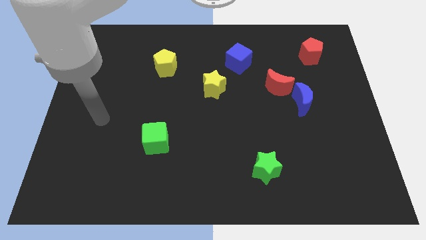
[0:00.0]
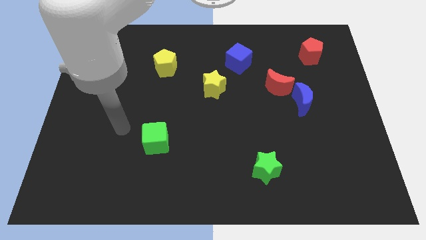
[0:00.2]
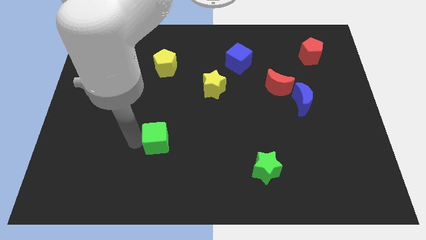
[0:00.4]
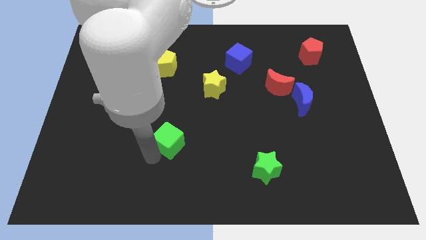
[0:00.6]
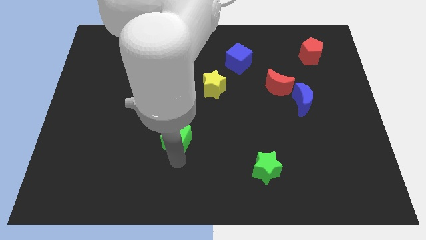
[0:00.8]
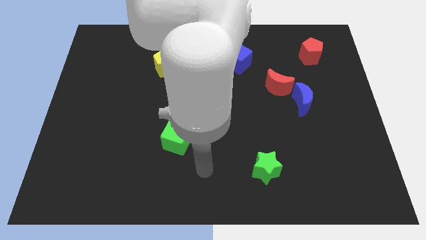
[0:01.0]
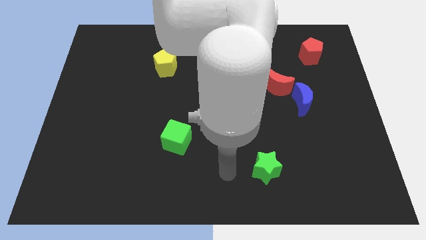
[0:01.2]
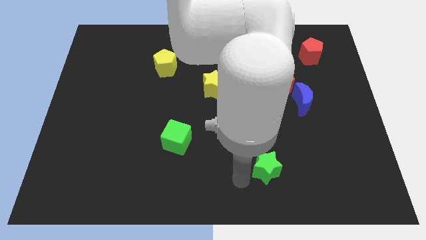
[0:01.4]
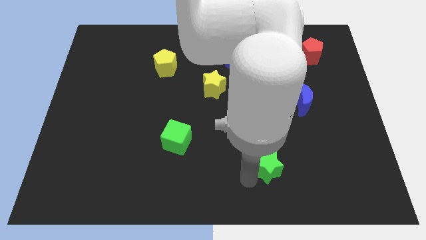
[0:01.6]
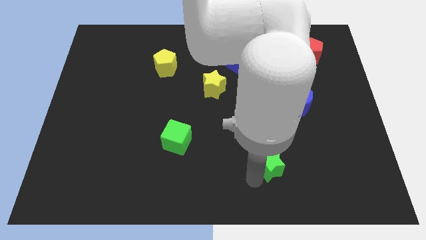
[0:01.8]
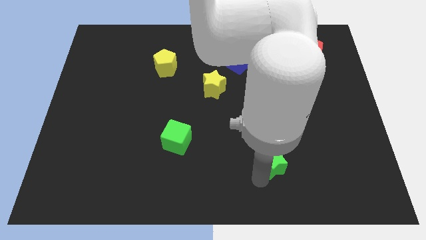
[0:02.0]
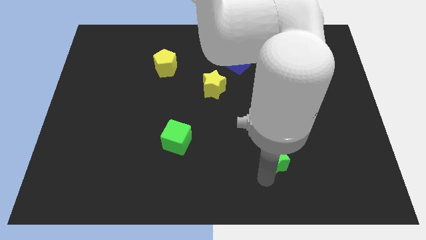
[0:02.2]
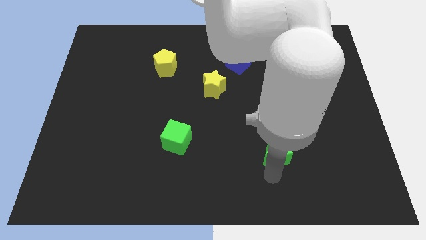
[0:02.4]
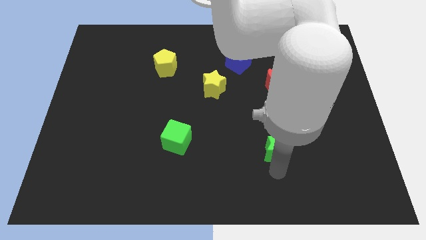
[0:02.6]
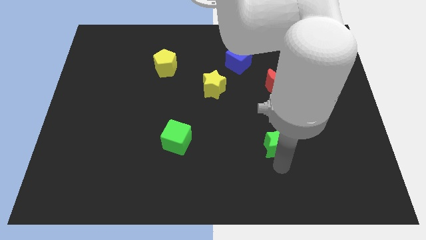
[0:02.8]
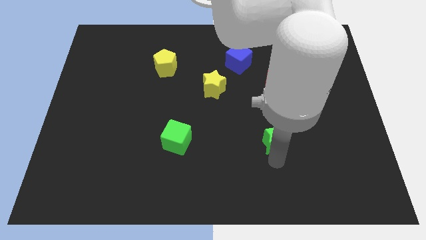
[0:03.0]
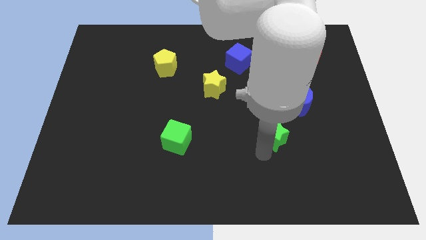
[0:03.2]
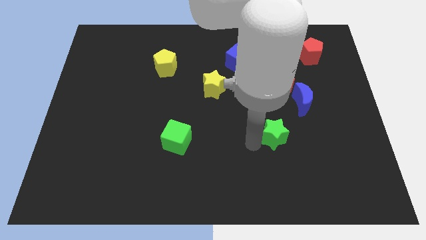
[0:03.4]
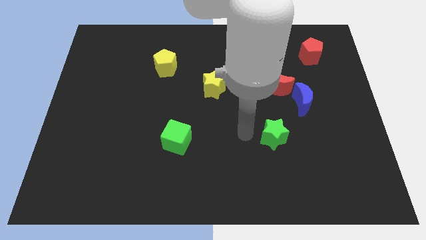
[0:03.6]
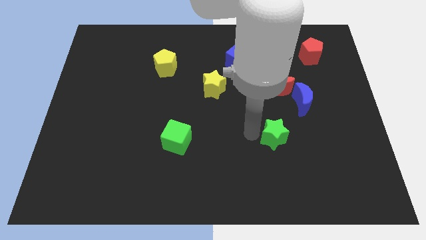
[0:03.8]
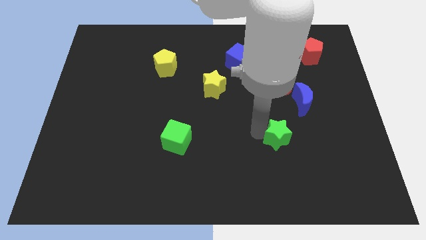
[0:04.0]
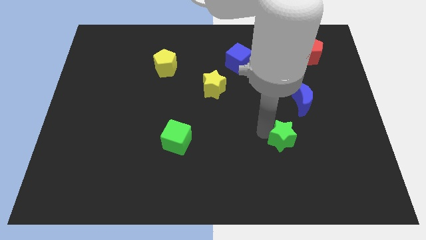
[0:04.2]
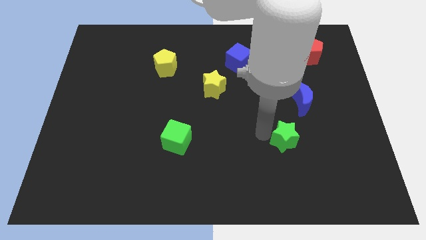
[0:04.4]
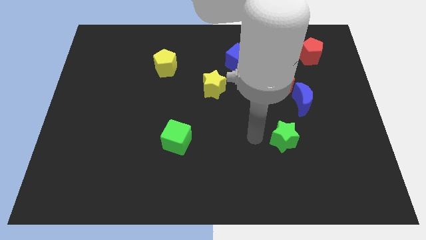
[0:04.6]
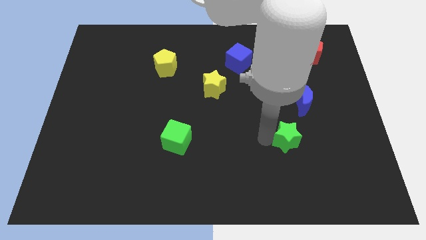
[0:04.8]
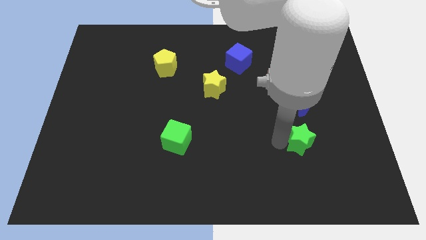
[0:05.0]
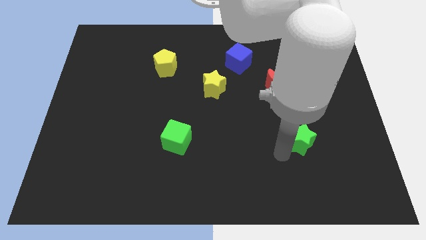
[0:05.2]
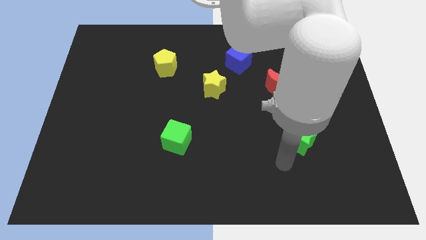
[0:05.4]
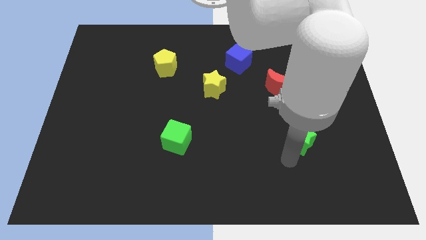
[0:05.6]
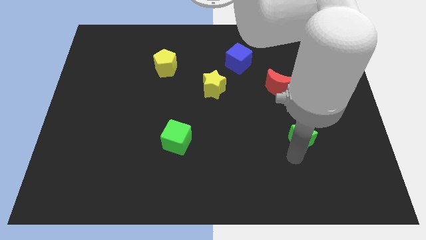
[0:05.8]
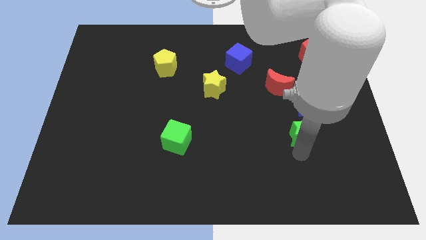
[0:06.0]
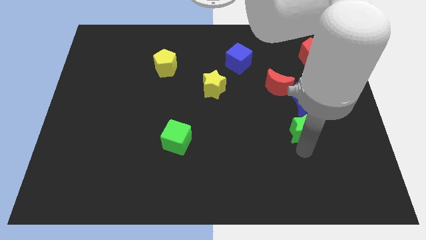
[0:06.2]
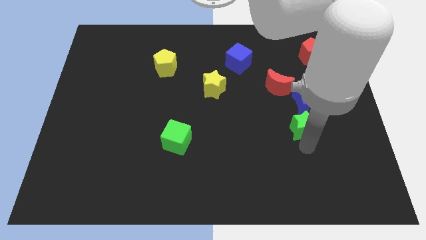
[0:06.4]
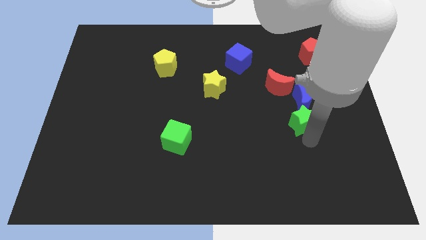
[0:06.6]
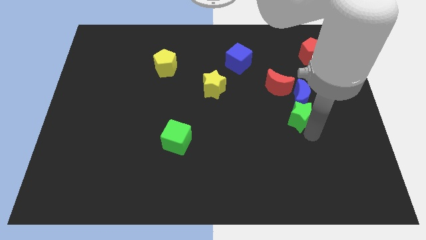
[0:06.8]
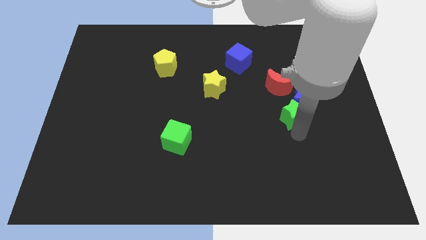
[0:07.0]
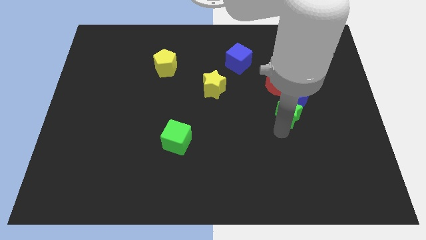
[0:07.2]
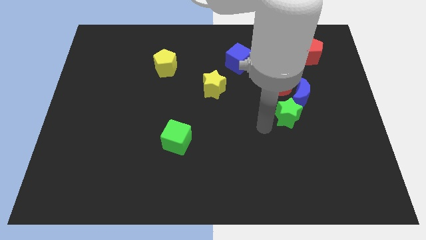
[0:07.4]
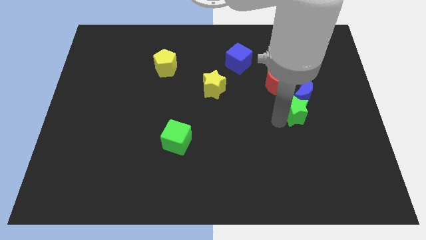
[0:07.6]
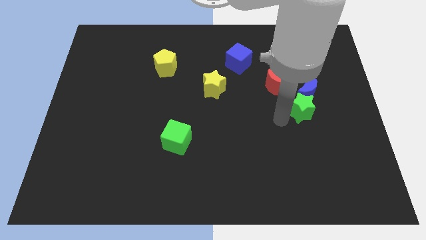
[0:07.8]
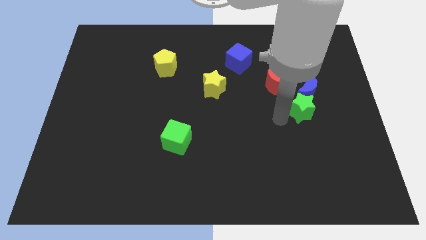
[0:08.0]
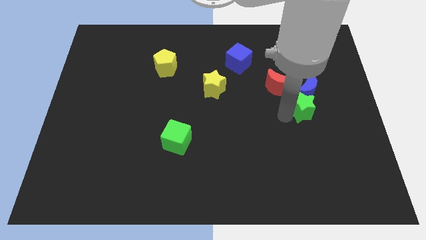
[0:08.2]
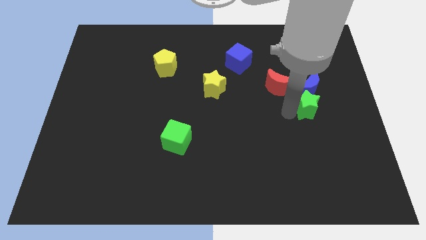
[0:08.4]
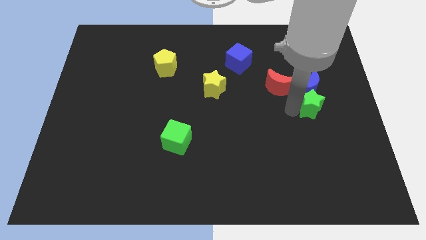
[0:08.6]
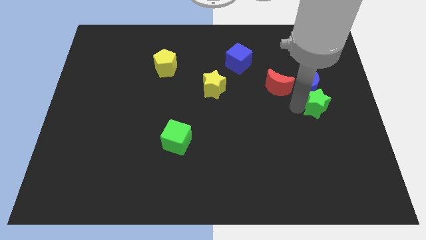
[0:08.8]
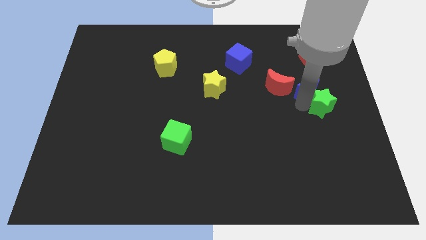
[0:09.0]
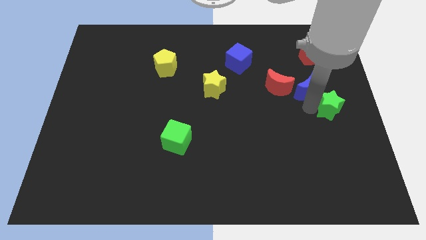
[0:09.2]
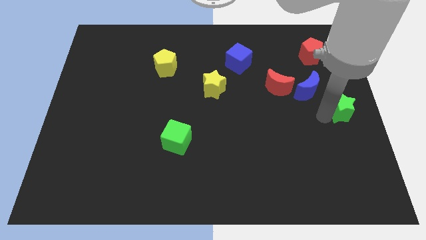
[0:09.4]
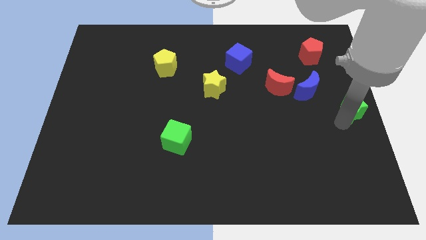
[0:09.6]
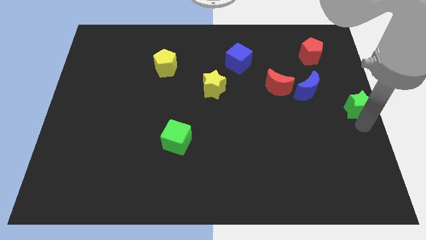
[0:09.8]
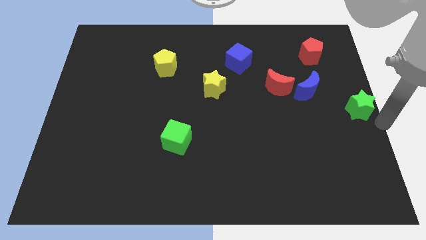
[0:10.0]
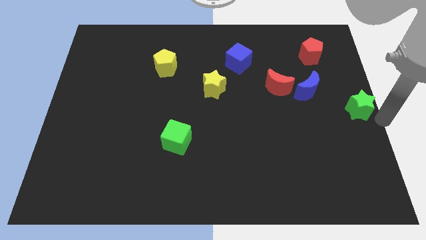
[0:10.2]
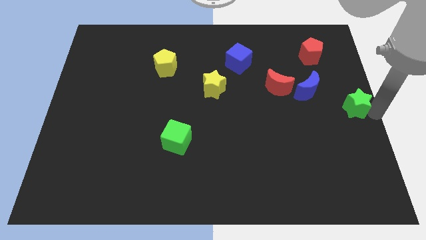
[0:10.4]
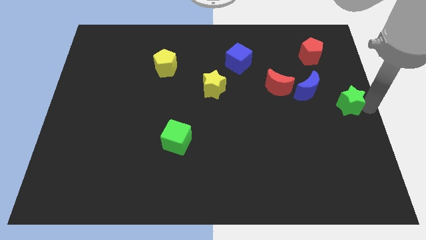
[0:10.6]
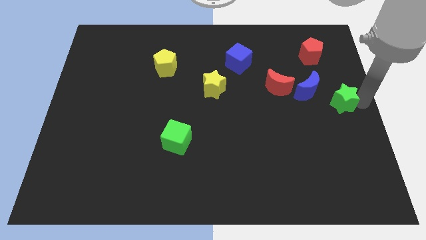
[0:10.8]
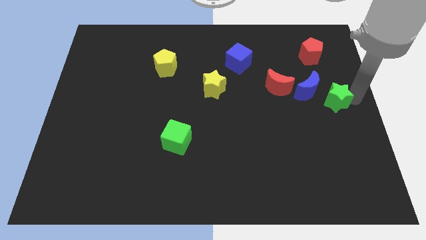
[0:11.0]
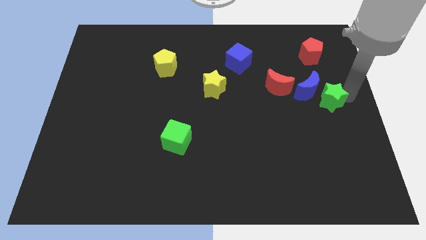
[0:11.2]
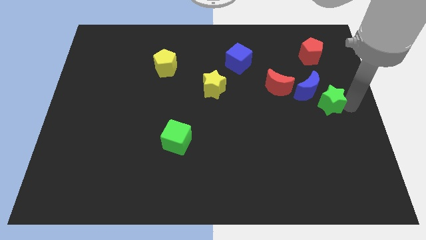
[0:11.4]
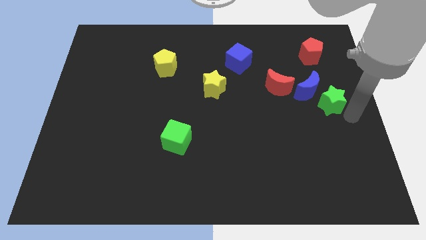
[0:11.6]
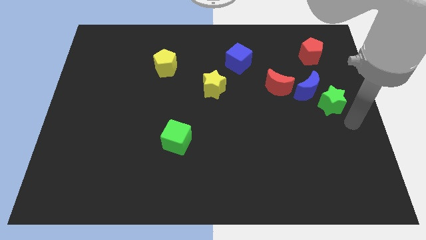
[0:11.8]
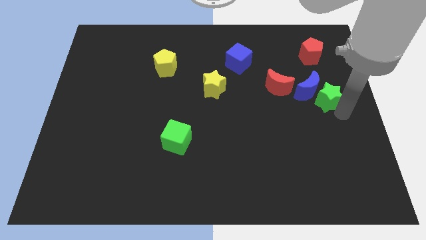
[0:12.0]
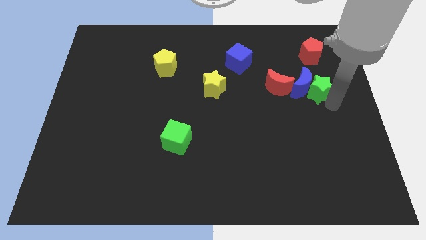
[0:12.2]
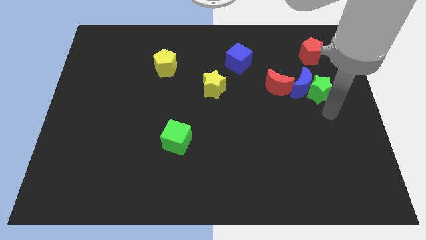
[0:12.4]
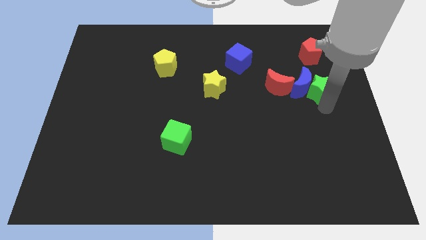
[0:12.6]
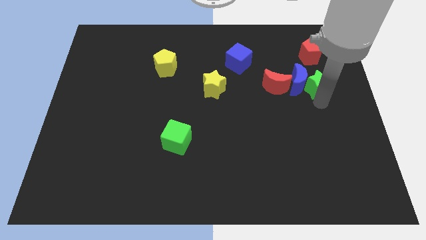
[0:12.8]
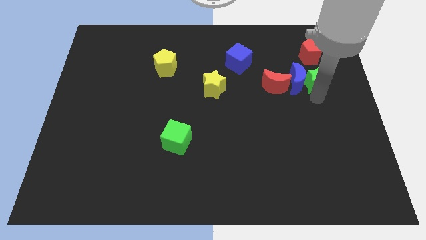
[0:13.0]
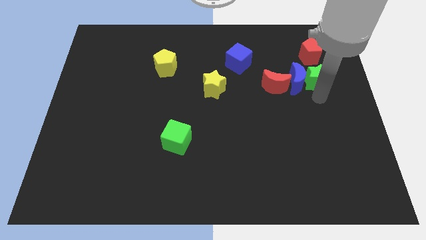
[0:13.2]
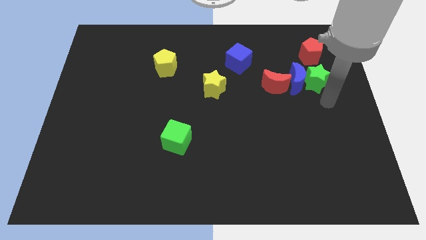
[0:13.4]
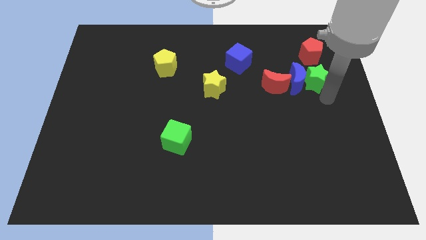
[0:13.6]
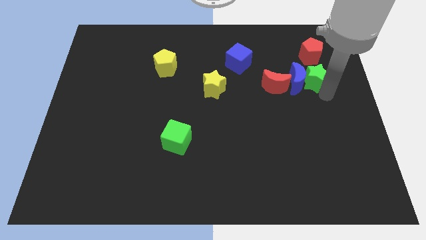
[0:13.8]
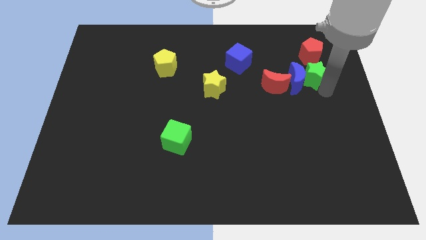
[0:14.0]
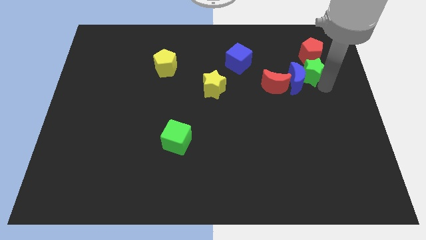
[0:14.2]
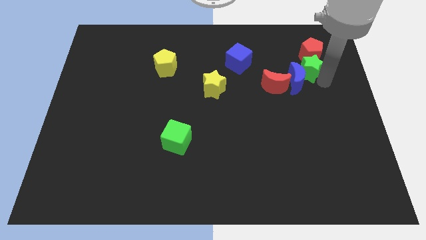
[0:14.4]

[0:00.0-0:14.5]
move the green star next to the red pentagon

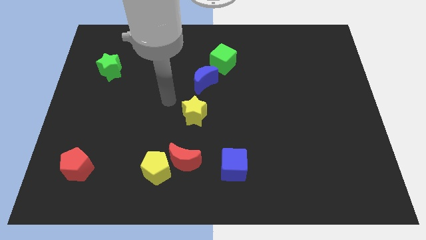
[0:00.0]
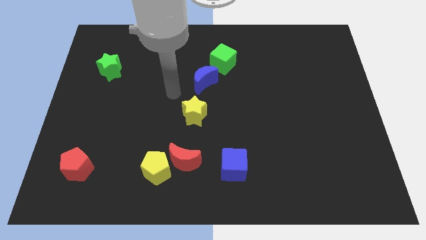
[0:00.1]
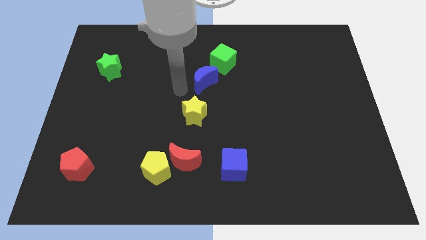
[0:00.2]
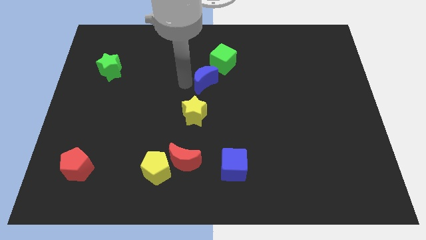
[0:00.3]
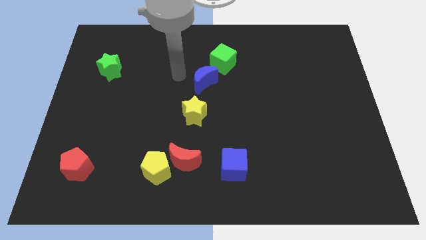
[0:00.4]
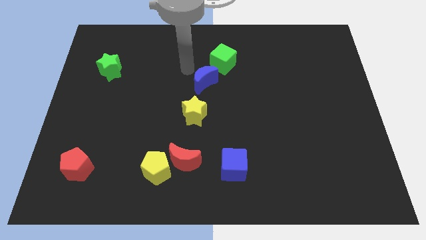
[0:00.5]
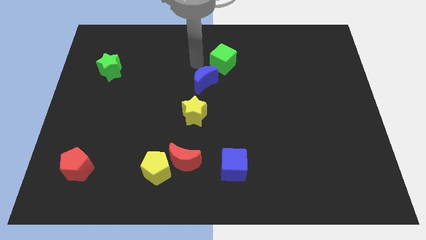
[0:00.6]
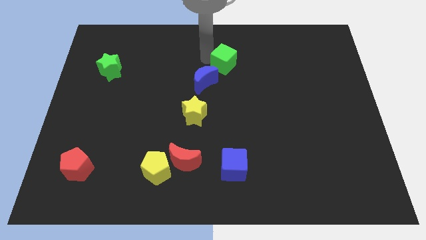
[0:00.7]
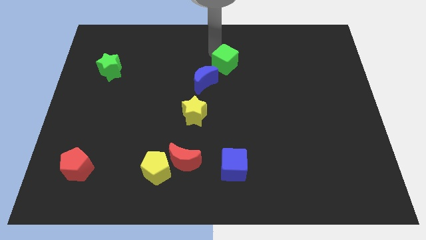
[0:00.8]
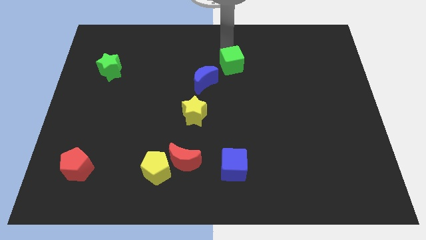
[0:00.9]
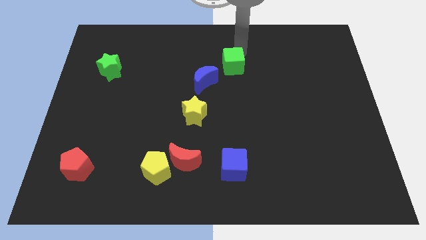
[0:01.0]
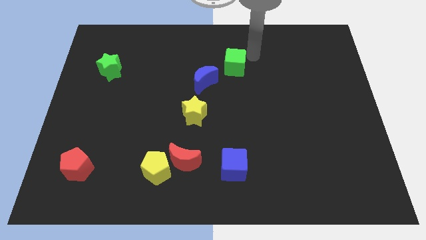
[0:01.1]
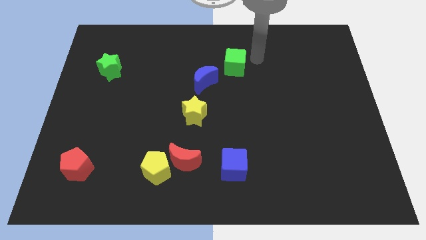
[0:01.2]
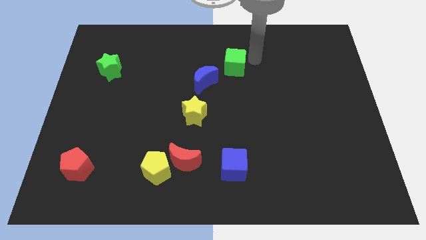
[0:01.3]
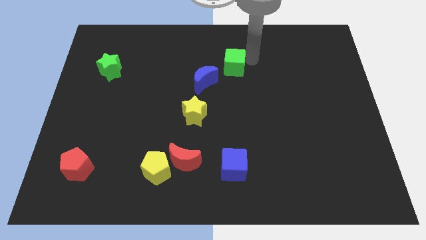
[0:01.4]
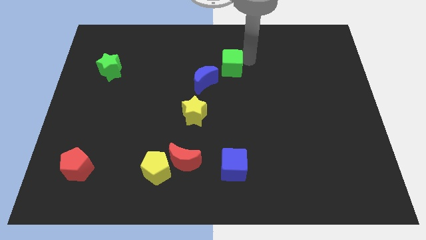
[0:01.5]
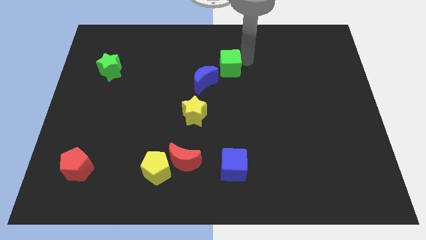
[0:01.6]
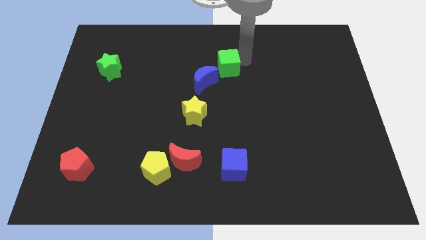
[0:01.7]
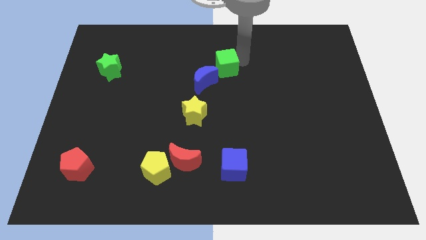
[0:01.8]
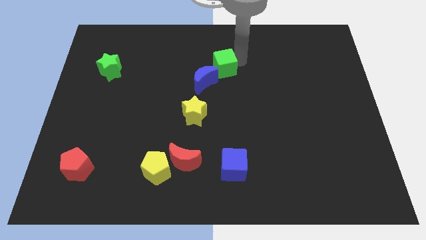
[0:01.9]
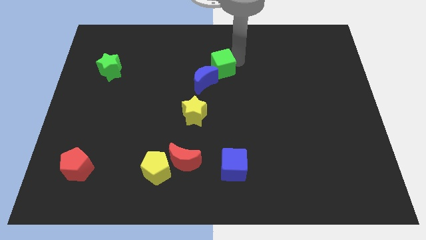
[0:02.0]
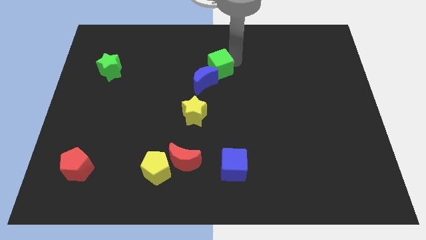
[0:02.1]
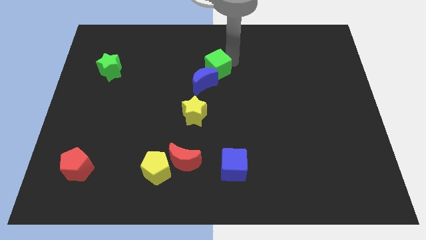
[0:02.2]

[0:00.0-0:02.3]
move the green cube close to the blue moon
